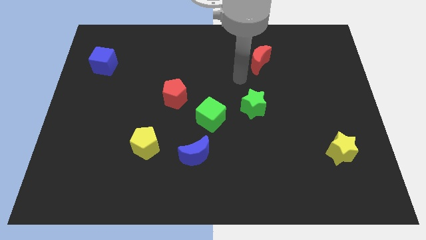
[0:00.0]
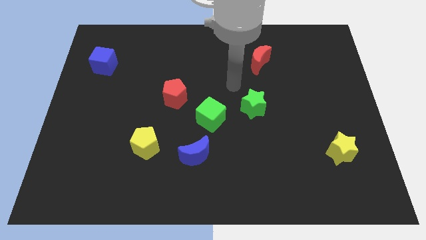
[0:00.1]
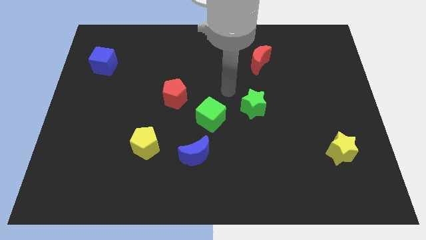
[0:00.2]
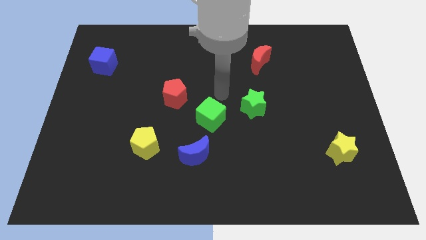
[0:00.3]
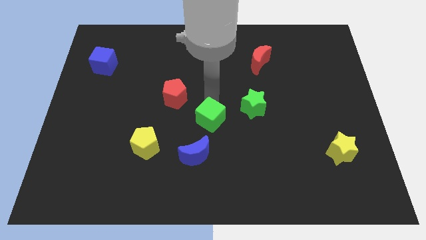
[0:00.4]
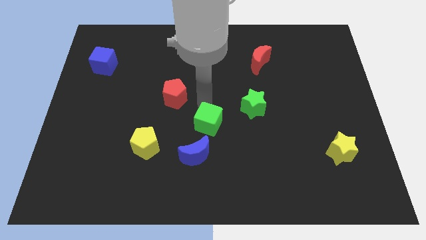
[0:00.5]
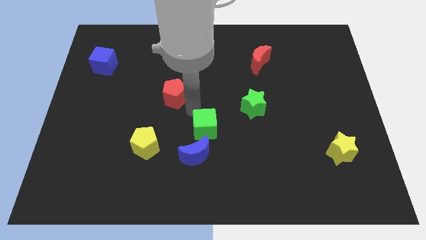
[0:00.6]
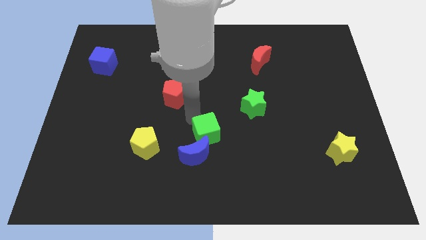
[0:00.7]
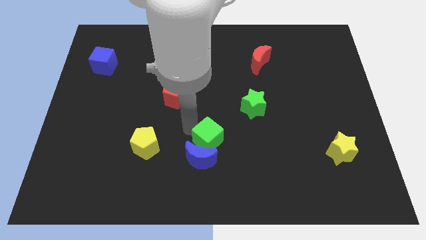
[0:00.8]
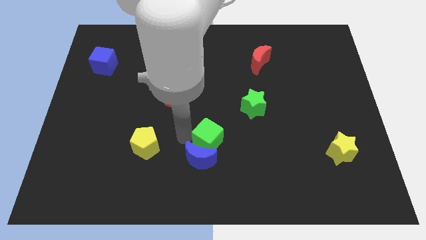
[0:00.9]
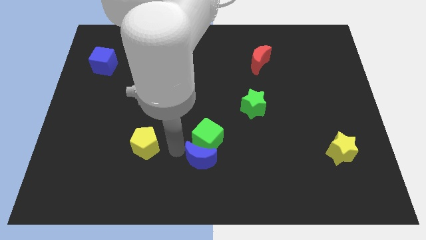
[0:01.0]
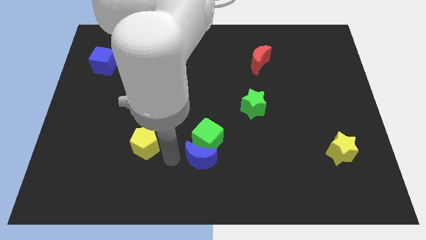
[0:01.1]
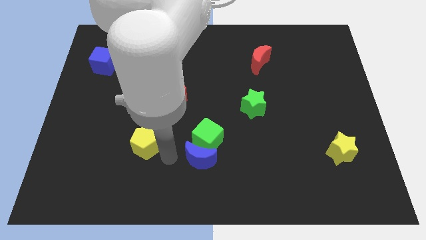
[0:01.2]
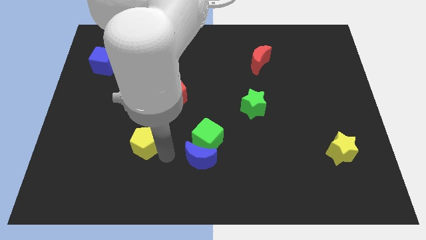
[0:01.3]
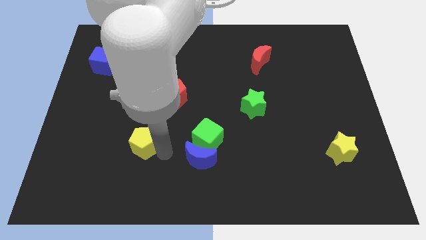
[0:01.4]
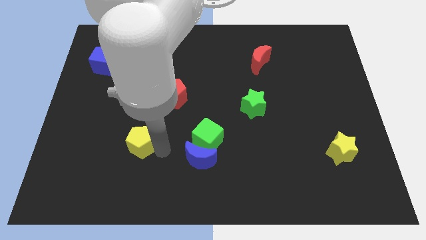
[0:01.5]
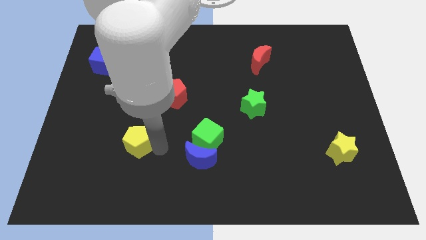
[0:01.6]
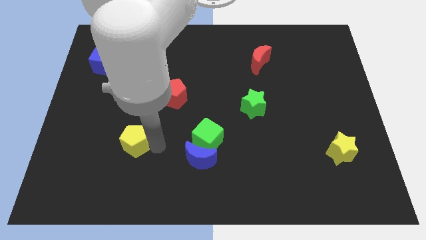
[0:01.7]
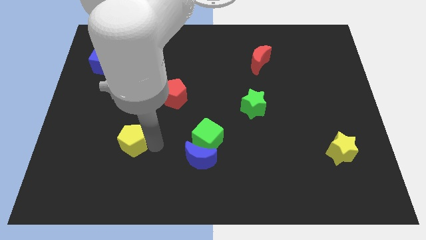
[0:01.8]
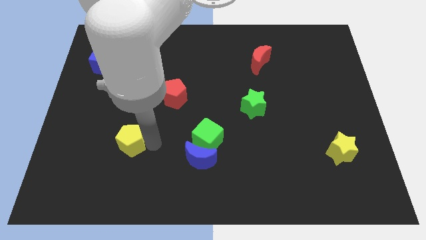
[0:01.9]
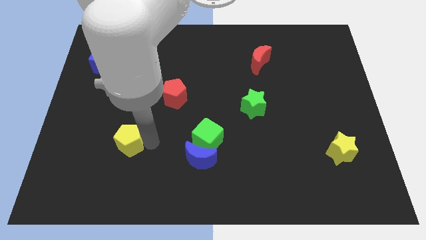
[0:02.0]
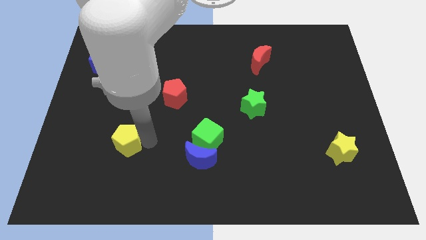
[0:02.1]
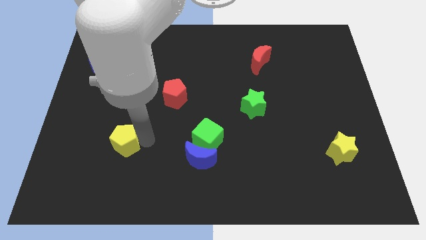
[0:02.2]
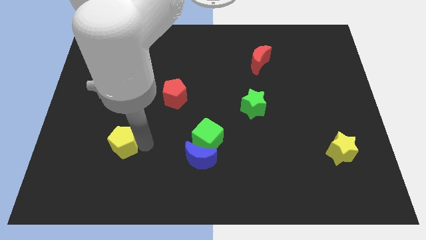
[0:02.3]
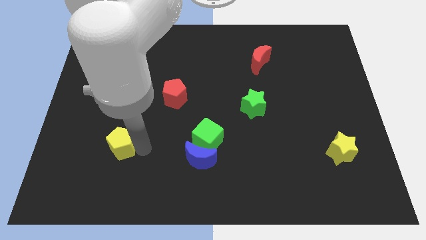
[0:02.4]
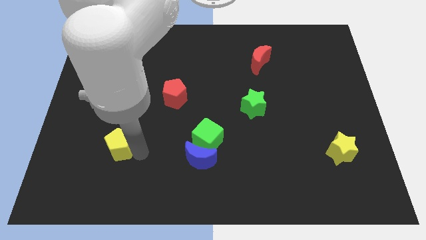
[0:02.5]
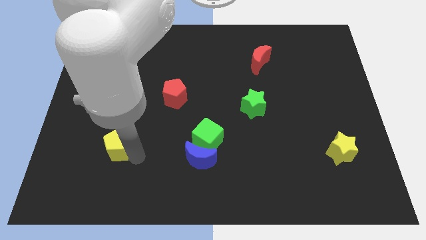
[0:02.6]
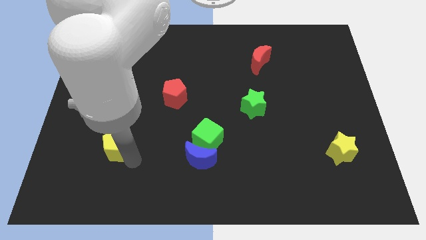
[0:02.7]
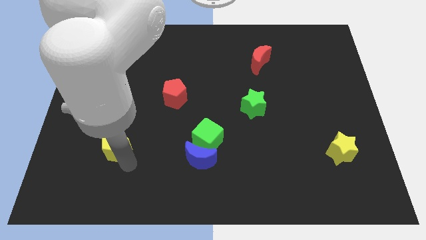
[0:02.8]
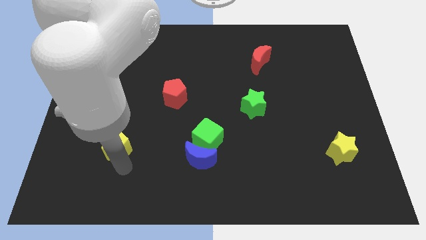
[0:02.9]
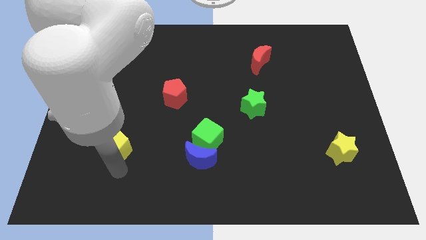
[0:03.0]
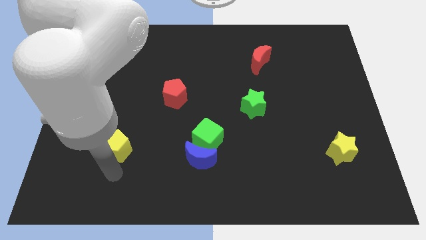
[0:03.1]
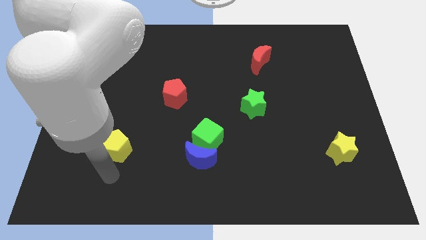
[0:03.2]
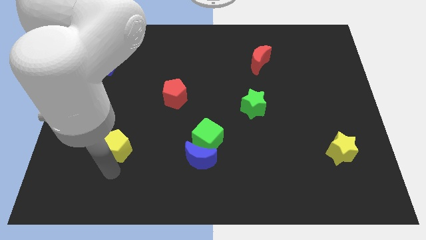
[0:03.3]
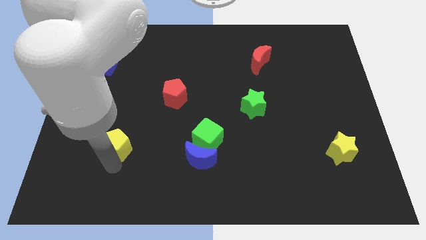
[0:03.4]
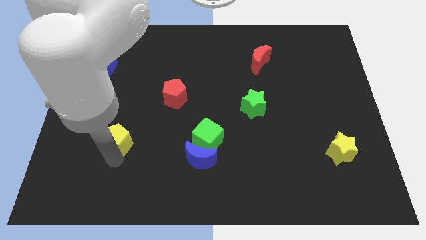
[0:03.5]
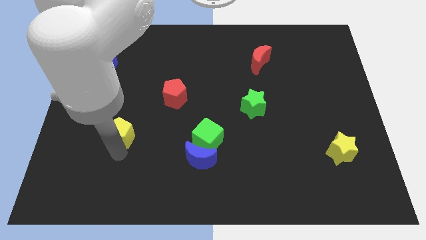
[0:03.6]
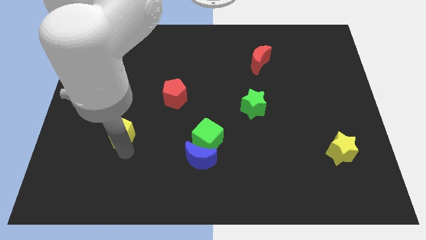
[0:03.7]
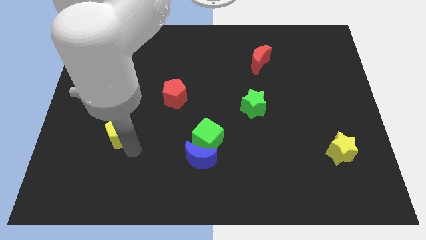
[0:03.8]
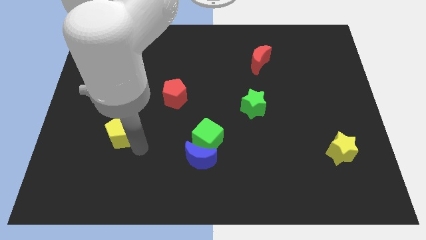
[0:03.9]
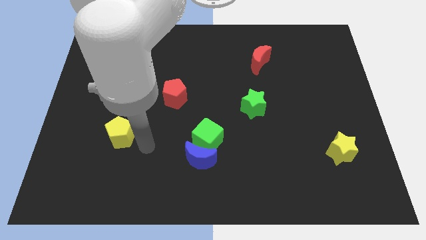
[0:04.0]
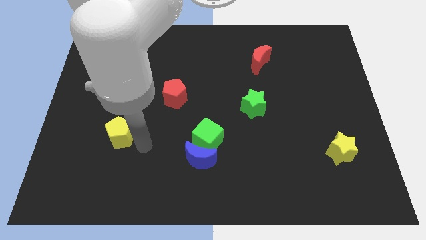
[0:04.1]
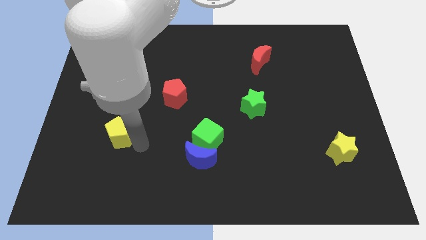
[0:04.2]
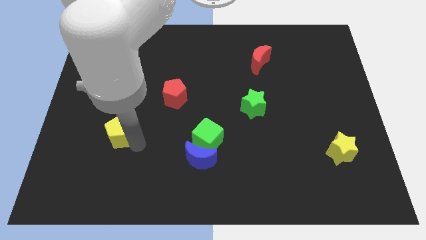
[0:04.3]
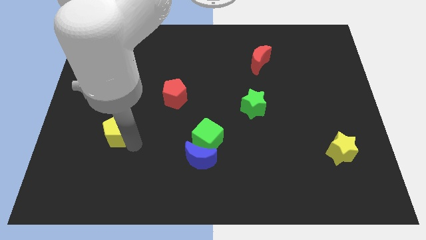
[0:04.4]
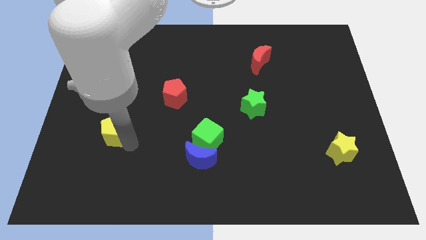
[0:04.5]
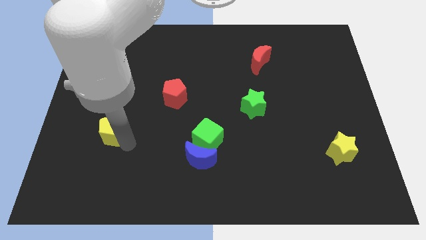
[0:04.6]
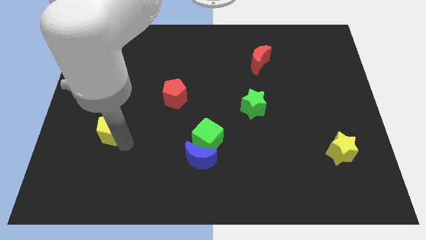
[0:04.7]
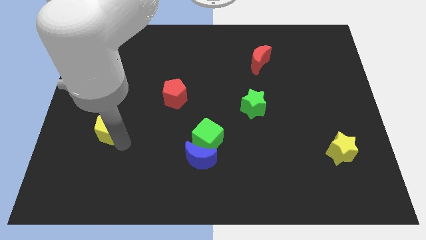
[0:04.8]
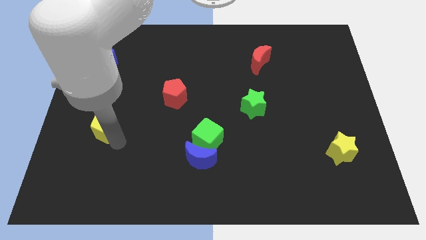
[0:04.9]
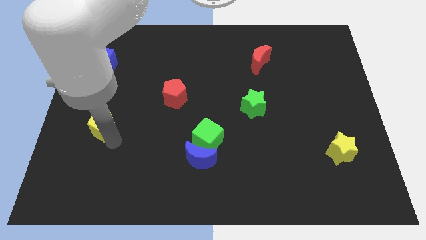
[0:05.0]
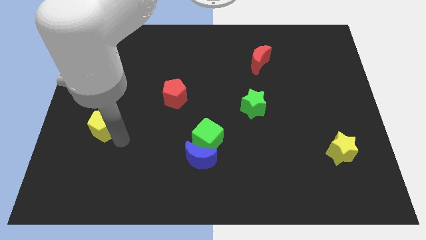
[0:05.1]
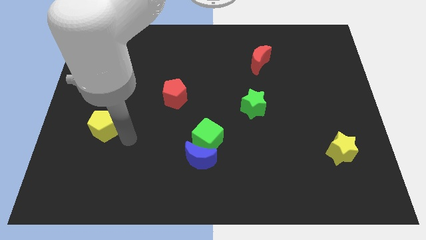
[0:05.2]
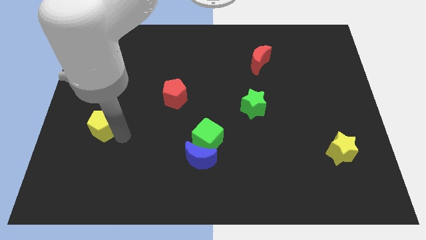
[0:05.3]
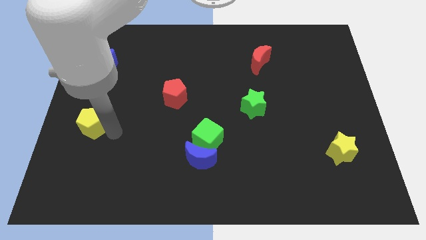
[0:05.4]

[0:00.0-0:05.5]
move the yellow pentagon to the center left
